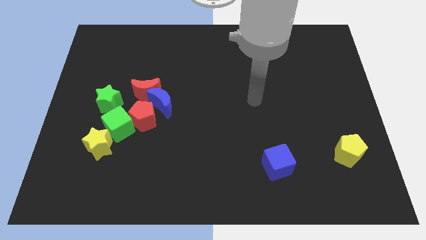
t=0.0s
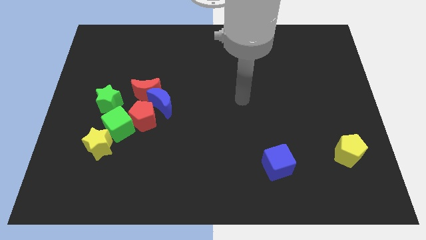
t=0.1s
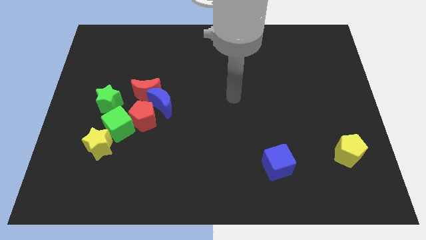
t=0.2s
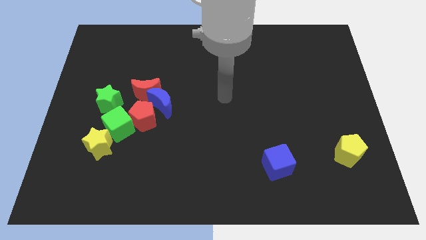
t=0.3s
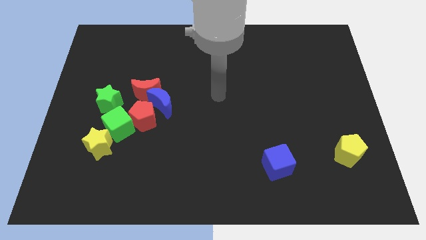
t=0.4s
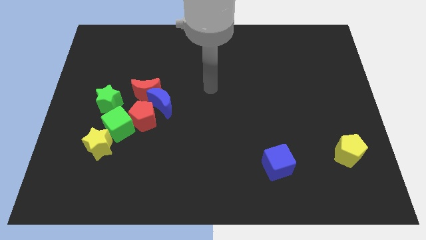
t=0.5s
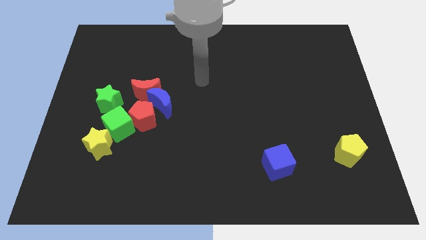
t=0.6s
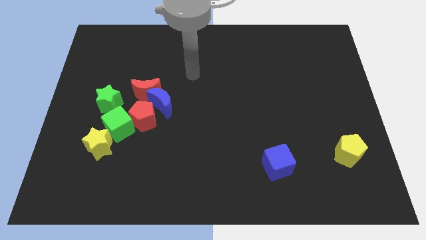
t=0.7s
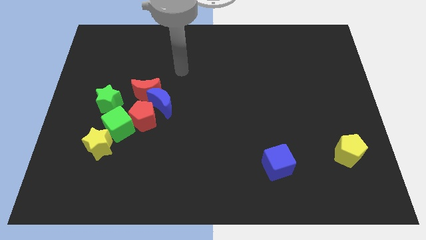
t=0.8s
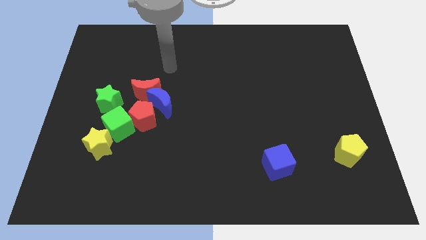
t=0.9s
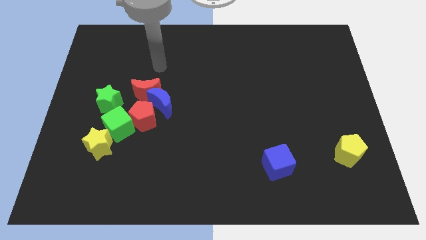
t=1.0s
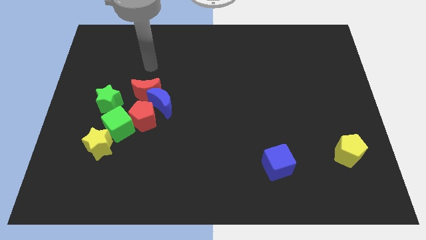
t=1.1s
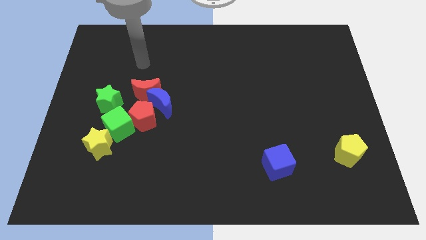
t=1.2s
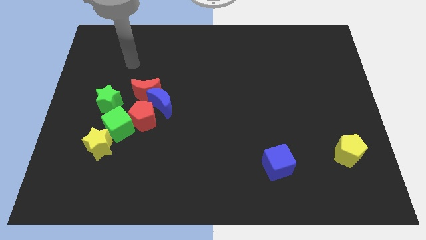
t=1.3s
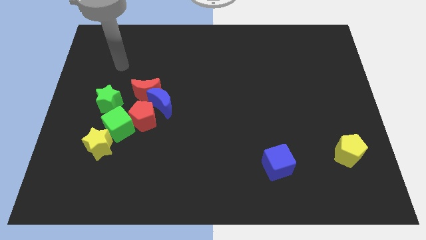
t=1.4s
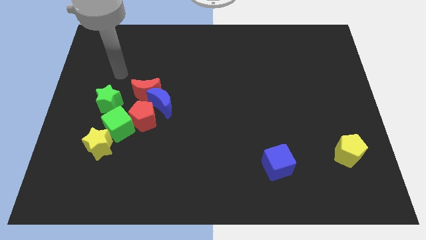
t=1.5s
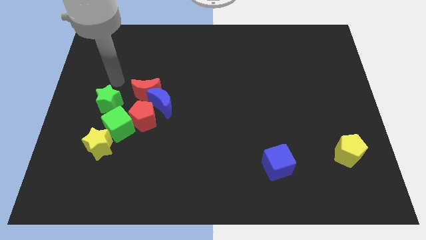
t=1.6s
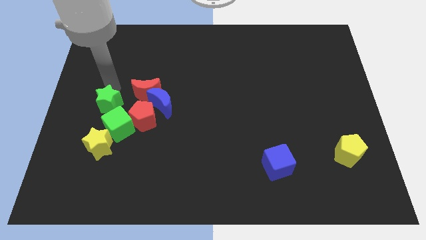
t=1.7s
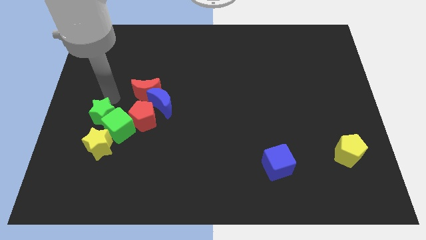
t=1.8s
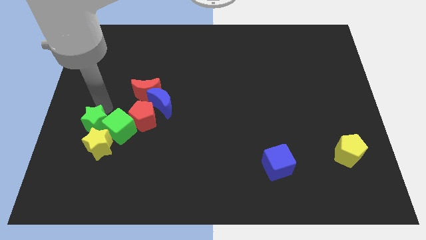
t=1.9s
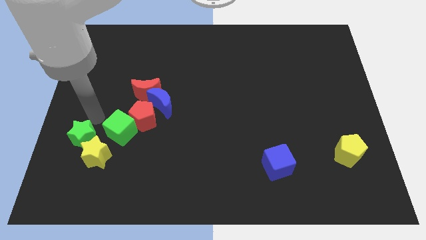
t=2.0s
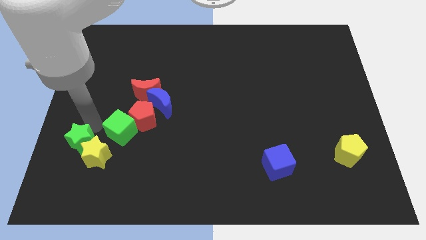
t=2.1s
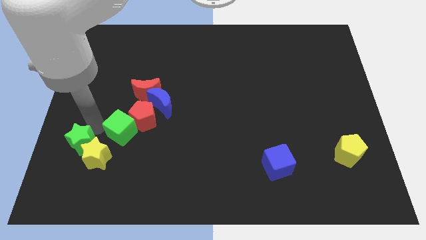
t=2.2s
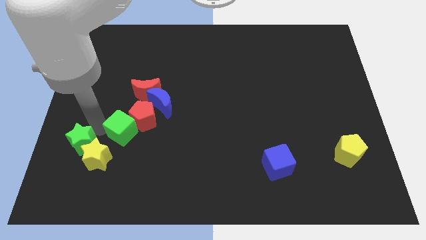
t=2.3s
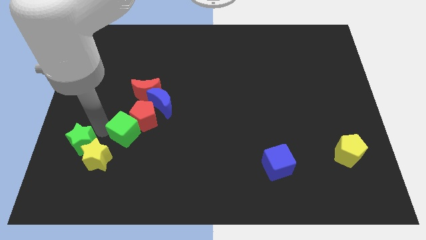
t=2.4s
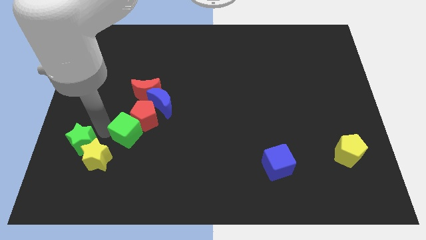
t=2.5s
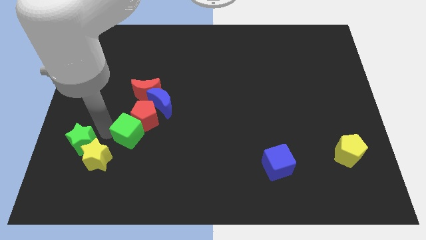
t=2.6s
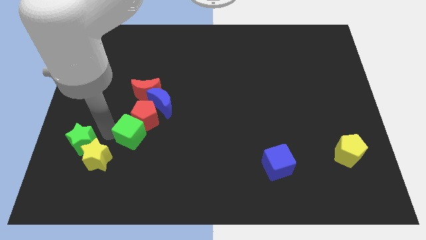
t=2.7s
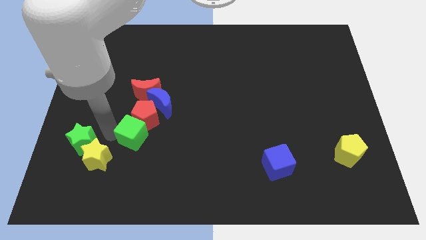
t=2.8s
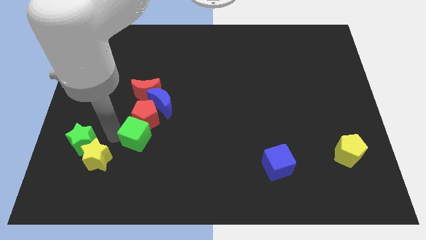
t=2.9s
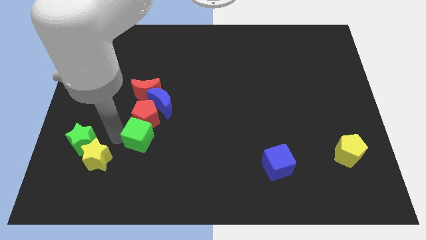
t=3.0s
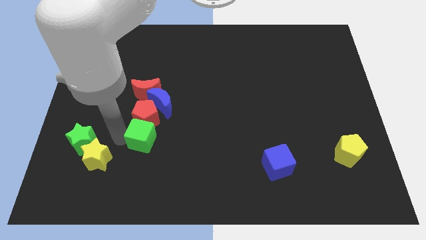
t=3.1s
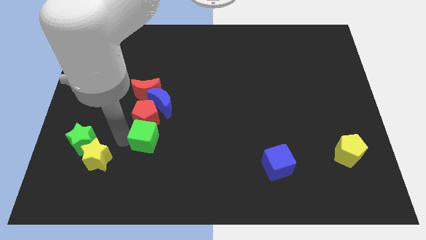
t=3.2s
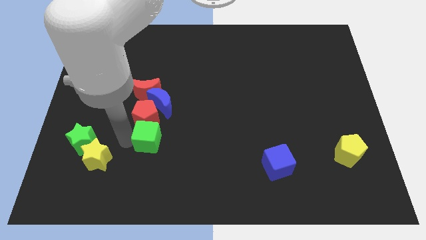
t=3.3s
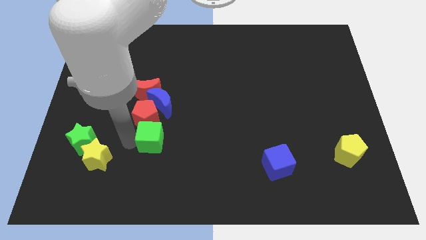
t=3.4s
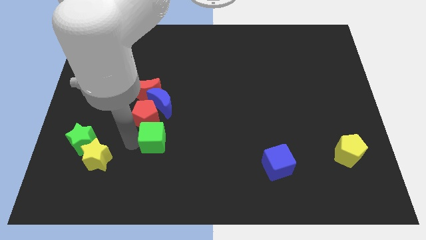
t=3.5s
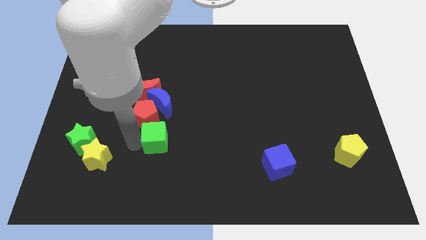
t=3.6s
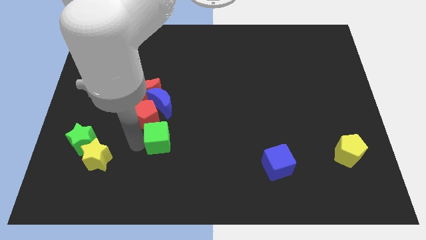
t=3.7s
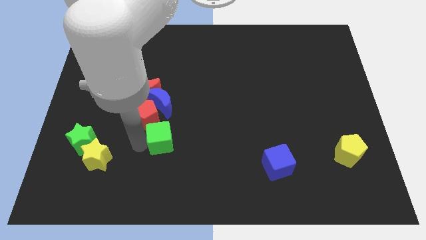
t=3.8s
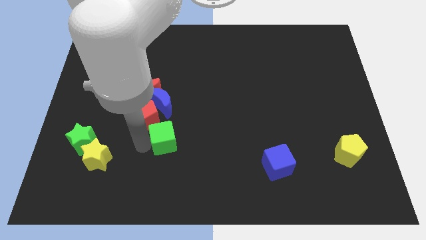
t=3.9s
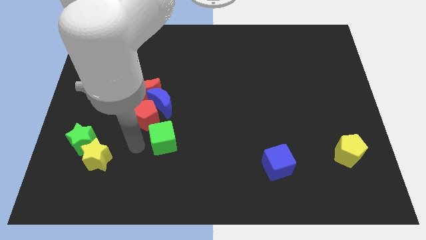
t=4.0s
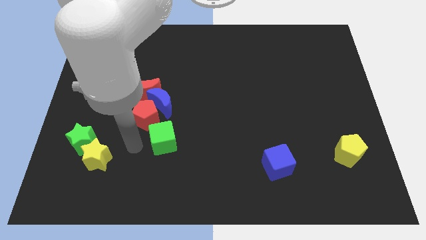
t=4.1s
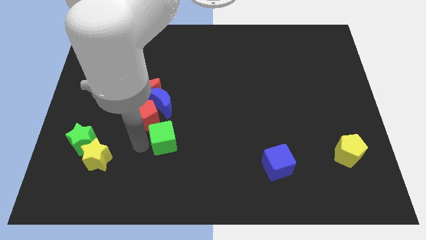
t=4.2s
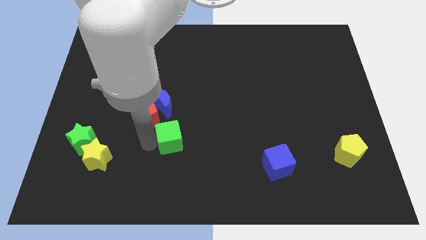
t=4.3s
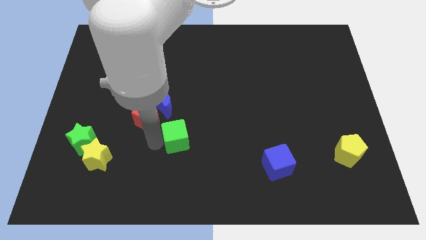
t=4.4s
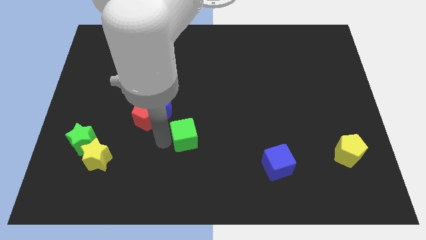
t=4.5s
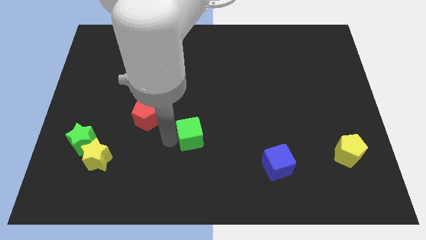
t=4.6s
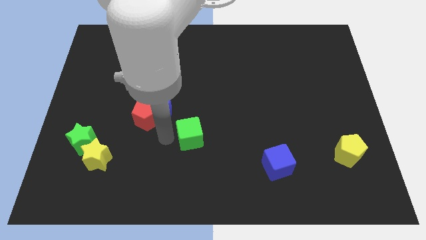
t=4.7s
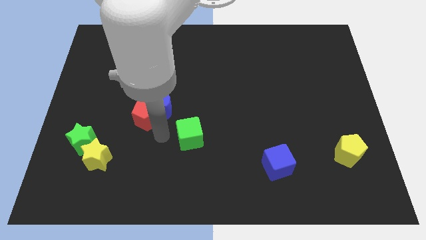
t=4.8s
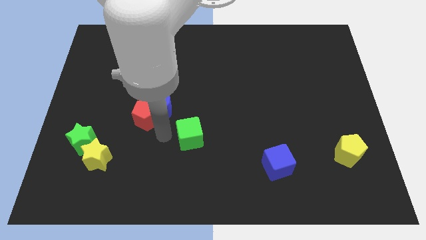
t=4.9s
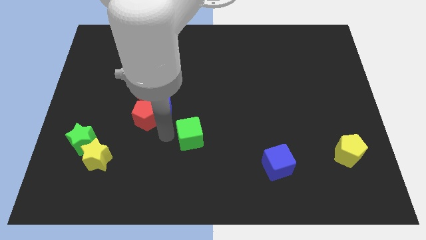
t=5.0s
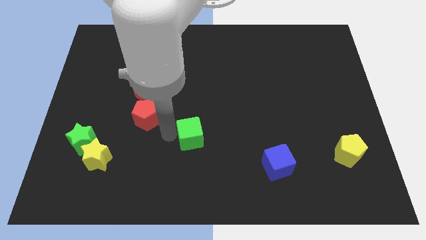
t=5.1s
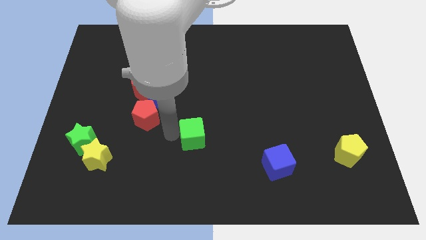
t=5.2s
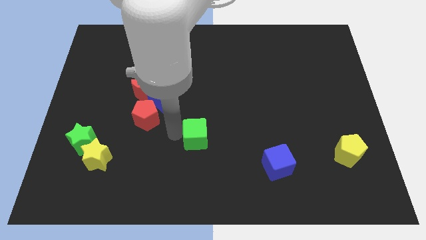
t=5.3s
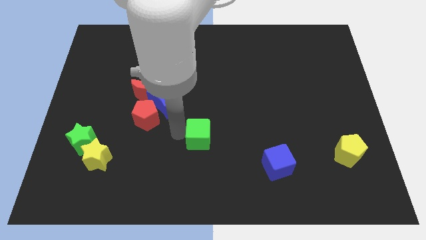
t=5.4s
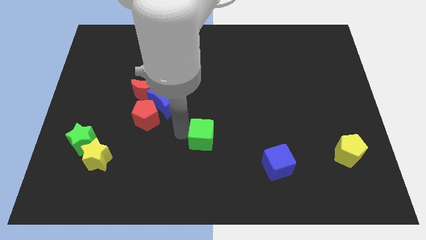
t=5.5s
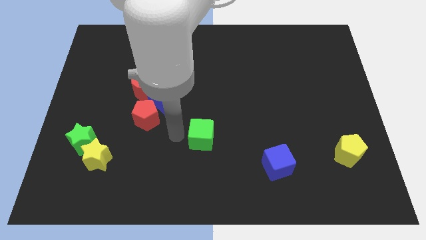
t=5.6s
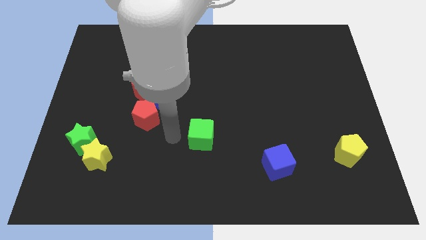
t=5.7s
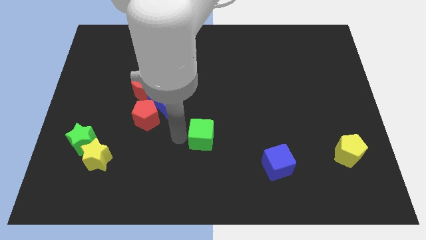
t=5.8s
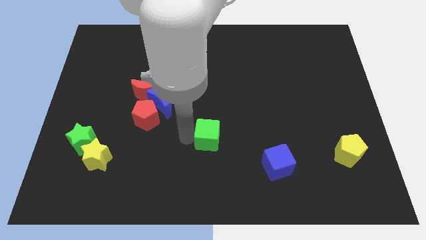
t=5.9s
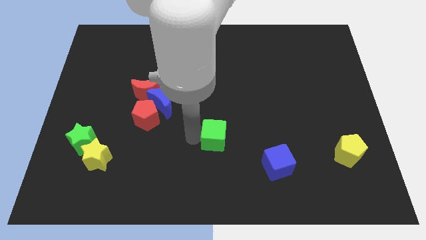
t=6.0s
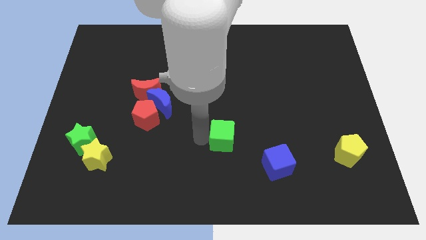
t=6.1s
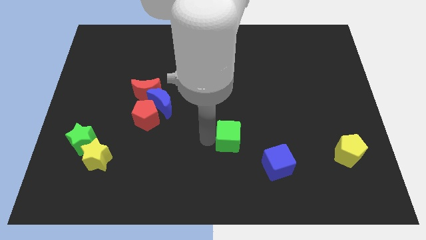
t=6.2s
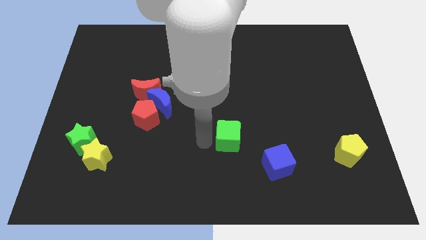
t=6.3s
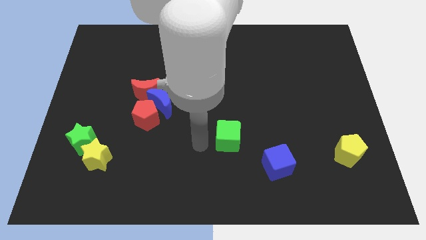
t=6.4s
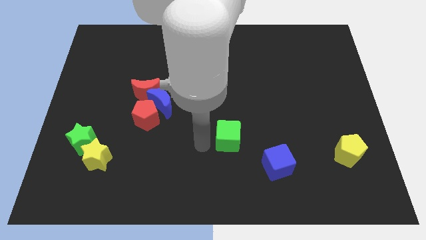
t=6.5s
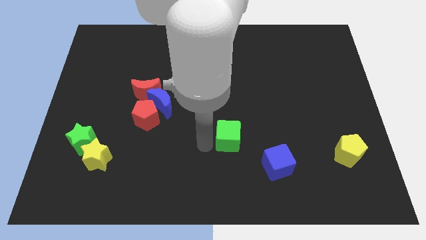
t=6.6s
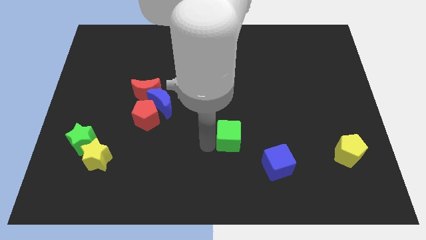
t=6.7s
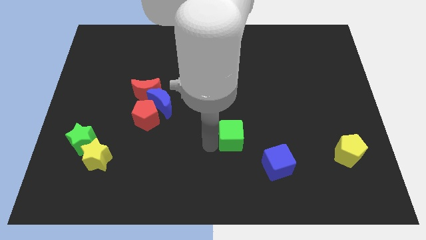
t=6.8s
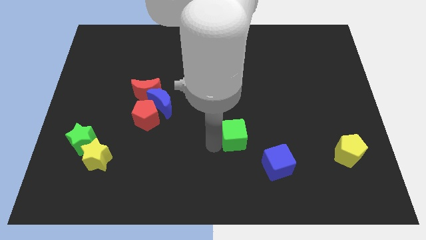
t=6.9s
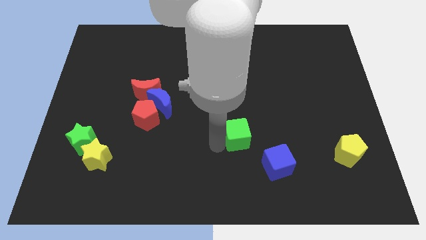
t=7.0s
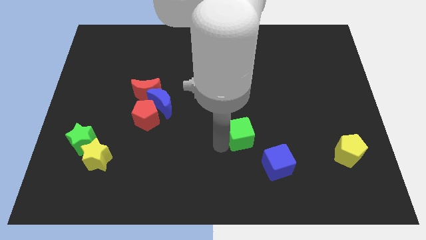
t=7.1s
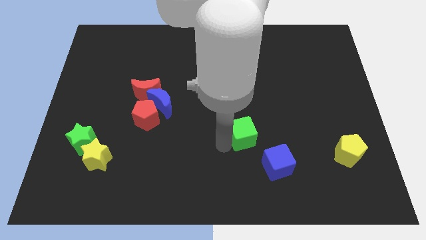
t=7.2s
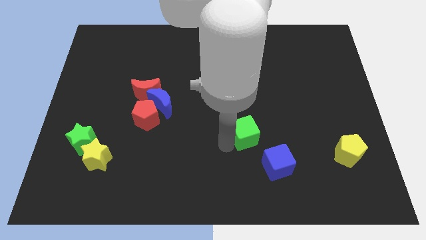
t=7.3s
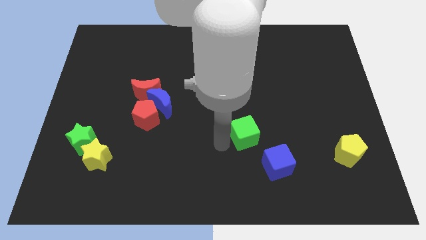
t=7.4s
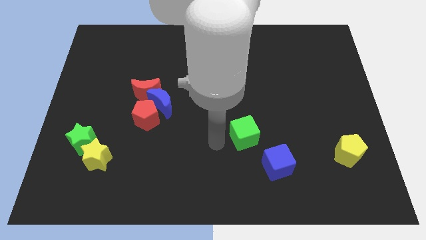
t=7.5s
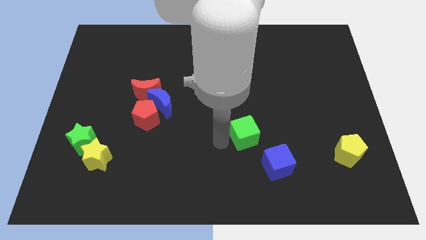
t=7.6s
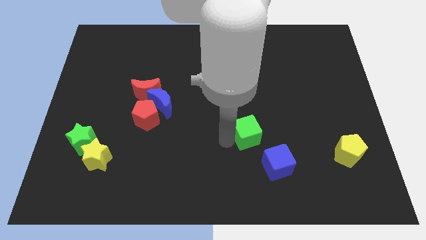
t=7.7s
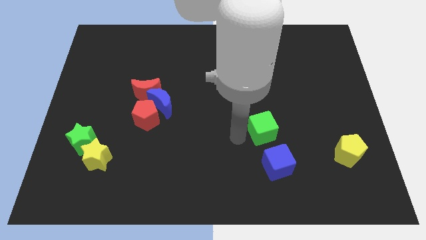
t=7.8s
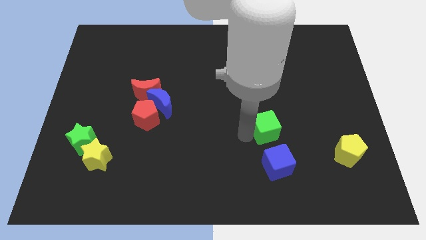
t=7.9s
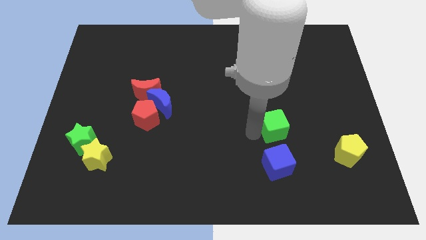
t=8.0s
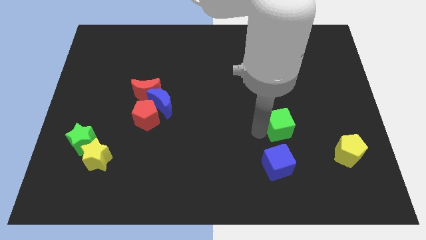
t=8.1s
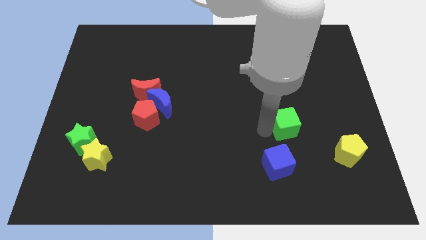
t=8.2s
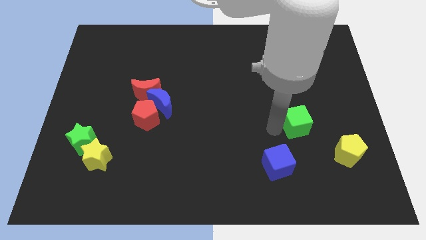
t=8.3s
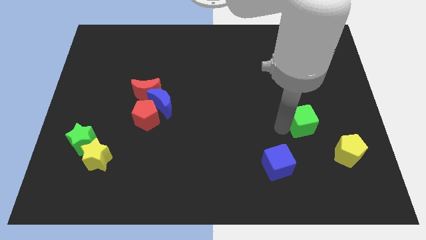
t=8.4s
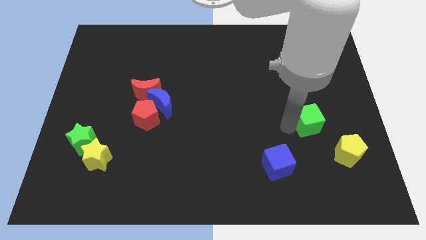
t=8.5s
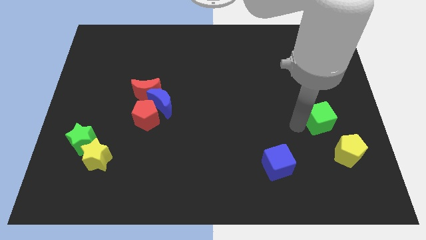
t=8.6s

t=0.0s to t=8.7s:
put the green cube to the top side of the yellow pentagon
